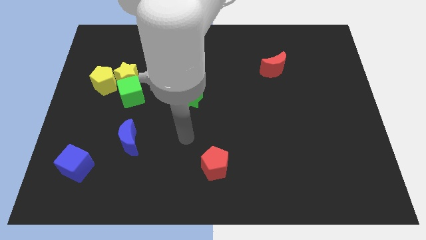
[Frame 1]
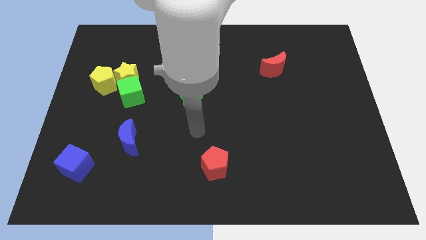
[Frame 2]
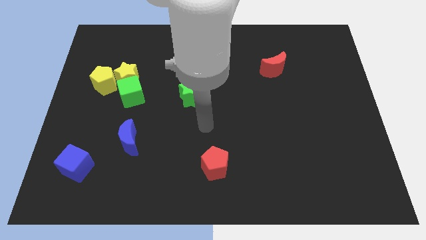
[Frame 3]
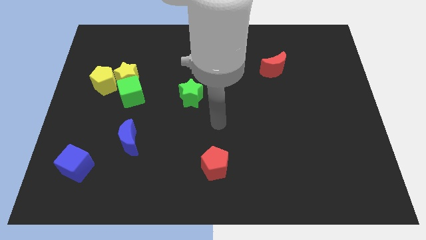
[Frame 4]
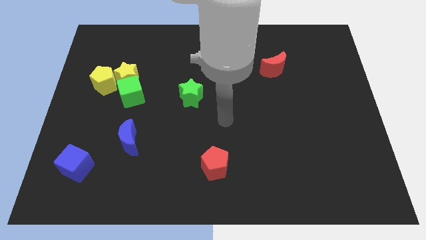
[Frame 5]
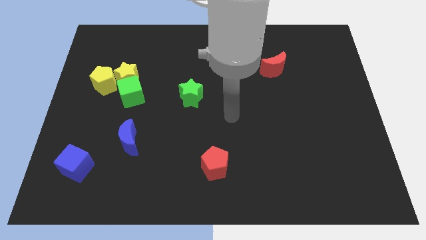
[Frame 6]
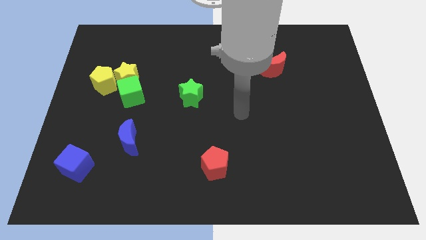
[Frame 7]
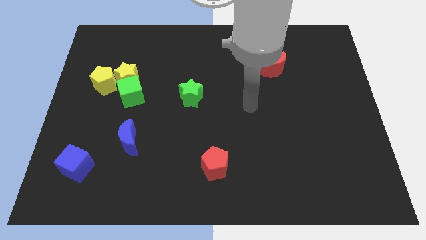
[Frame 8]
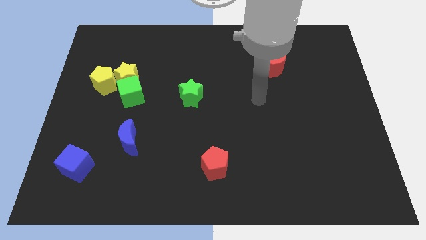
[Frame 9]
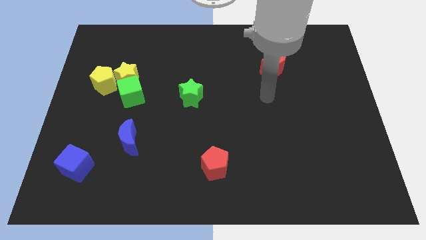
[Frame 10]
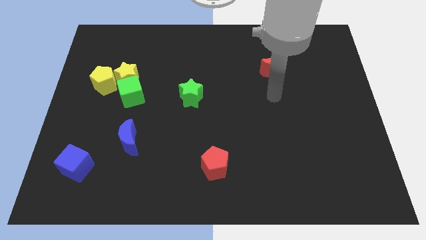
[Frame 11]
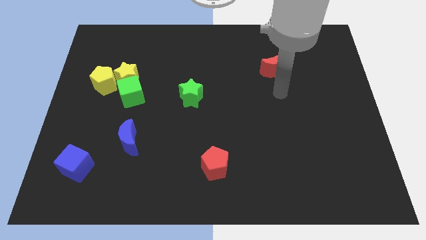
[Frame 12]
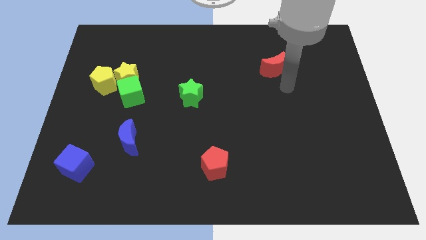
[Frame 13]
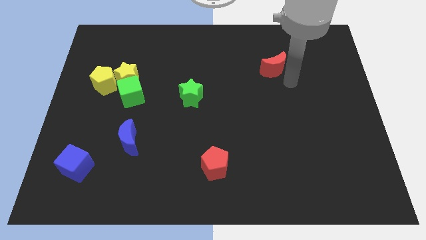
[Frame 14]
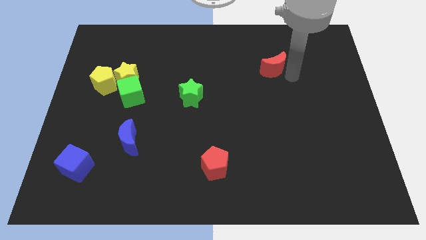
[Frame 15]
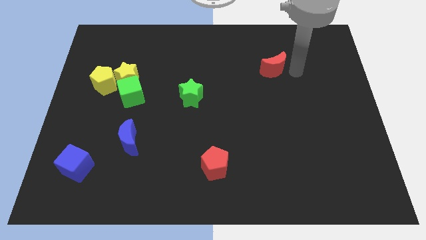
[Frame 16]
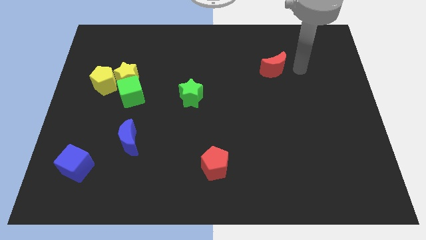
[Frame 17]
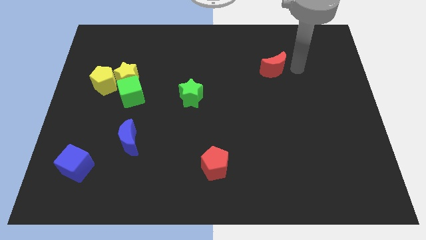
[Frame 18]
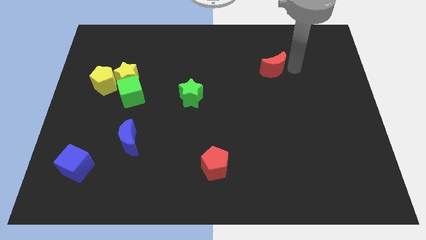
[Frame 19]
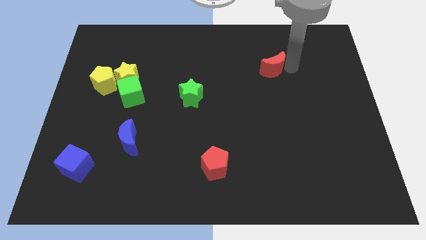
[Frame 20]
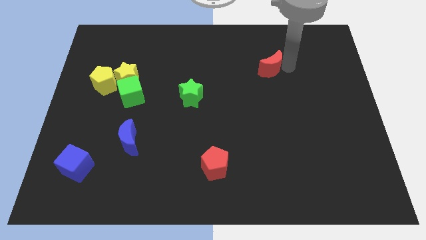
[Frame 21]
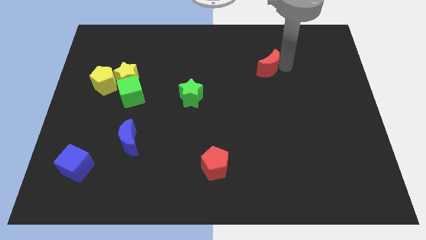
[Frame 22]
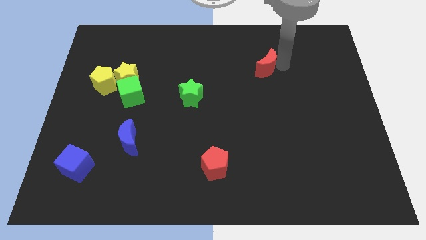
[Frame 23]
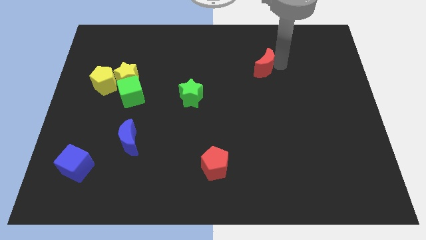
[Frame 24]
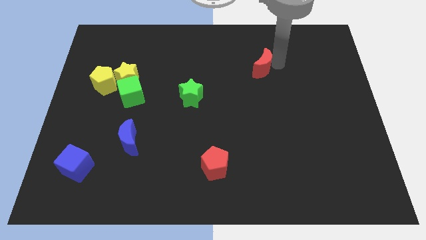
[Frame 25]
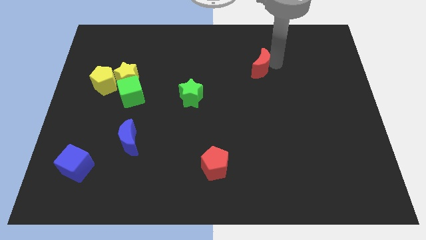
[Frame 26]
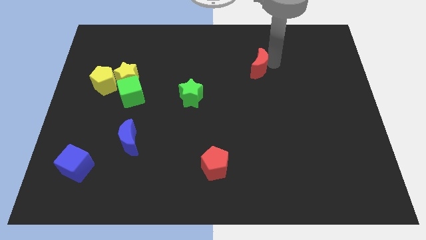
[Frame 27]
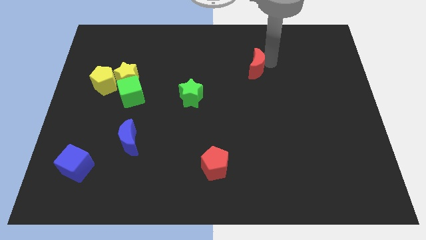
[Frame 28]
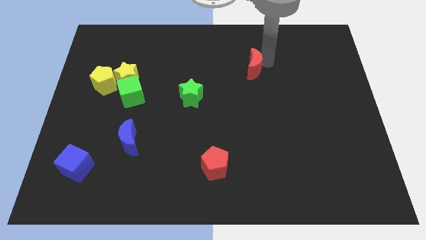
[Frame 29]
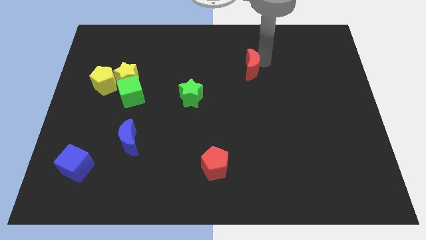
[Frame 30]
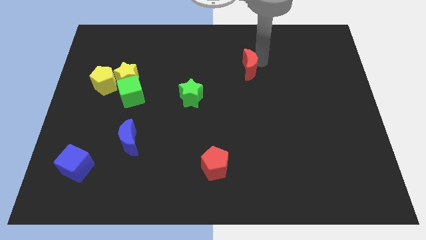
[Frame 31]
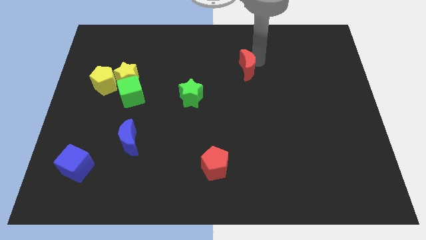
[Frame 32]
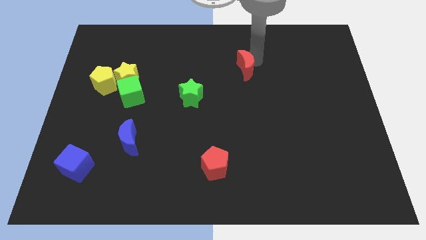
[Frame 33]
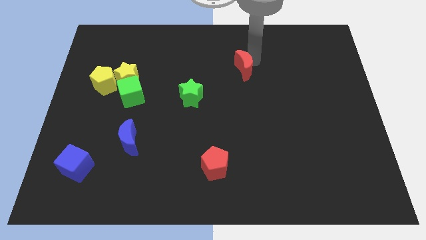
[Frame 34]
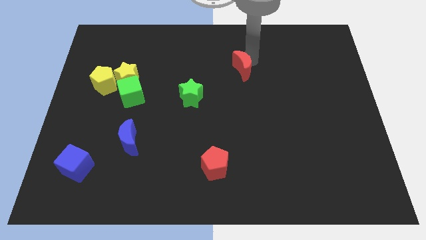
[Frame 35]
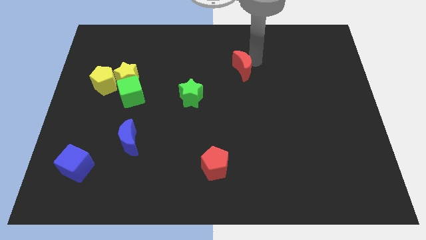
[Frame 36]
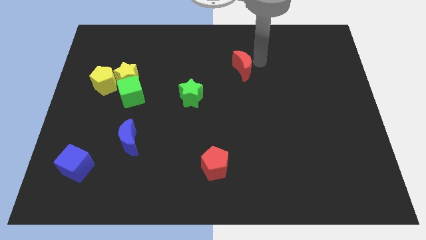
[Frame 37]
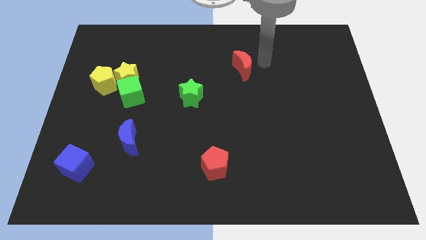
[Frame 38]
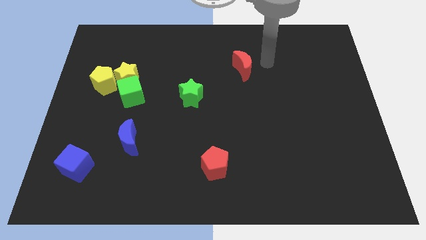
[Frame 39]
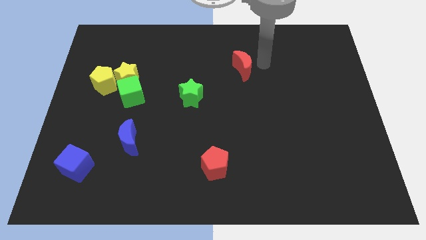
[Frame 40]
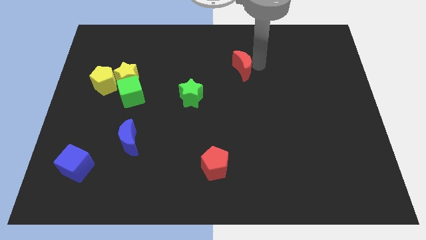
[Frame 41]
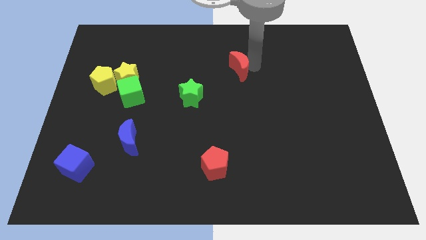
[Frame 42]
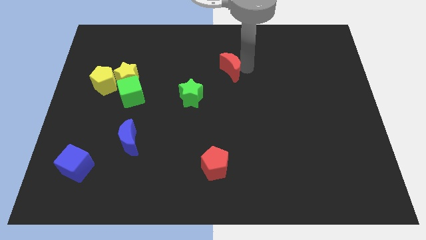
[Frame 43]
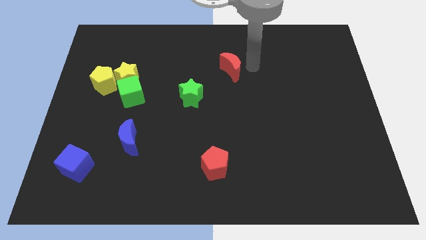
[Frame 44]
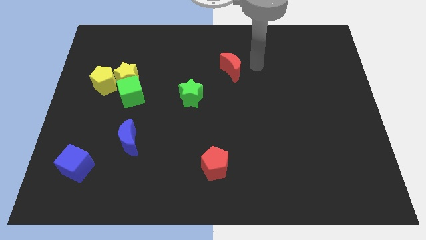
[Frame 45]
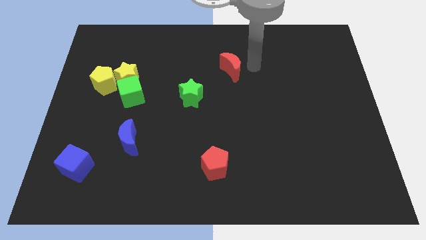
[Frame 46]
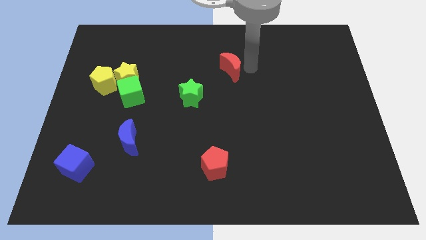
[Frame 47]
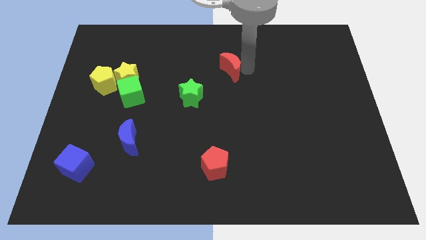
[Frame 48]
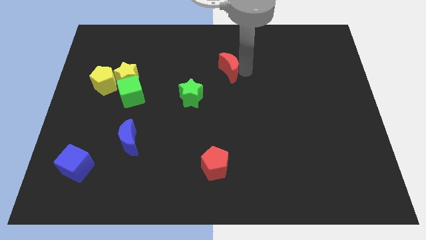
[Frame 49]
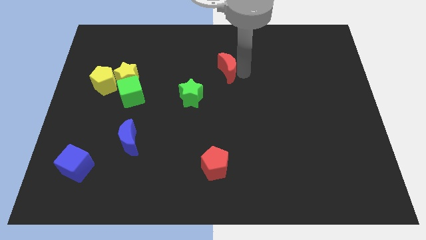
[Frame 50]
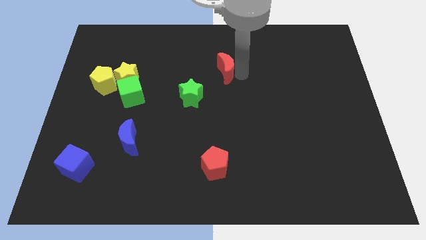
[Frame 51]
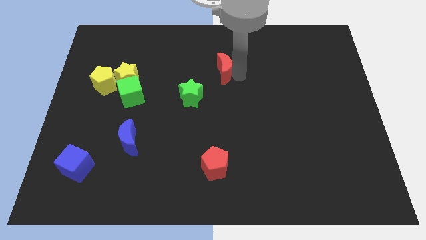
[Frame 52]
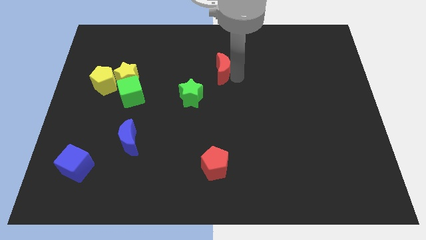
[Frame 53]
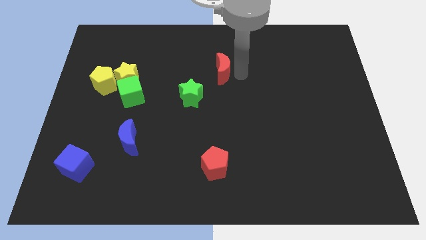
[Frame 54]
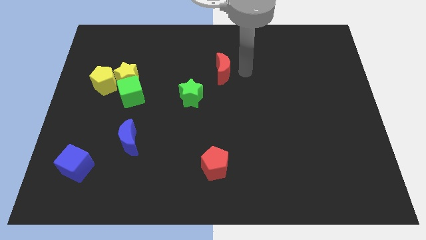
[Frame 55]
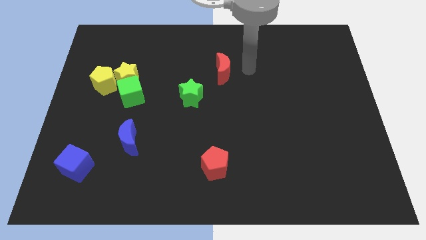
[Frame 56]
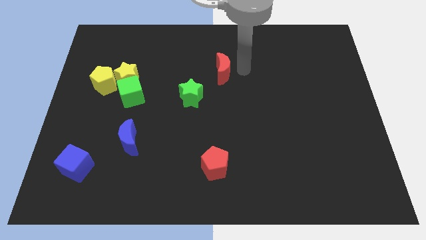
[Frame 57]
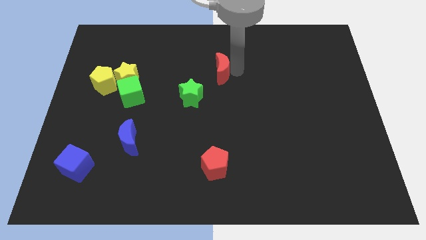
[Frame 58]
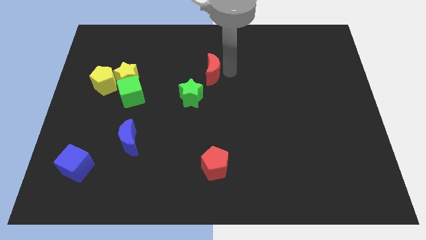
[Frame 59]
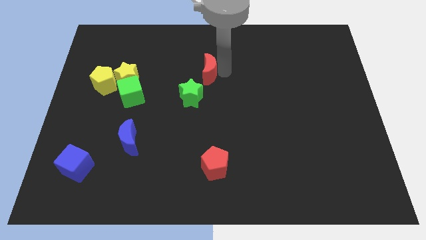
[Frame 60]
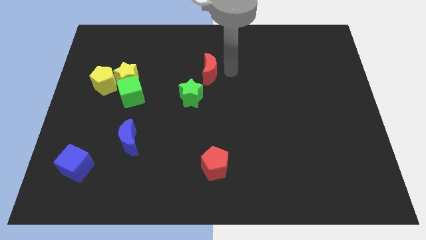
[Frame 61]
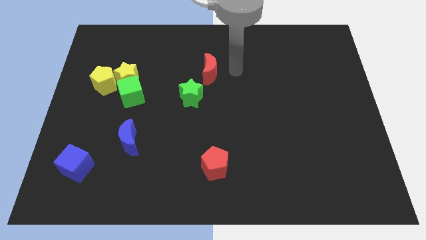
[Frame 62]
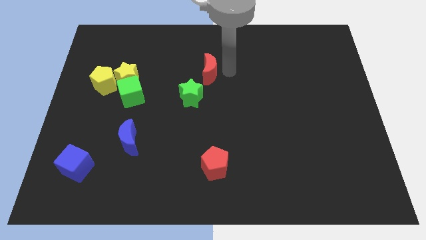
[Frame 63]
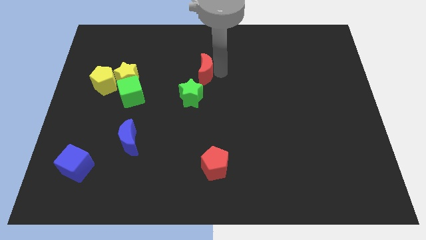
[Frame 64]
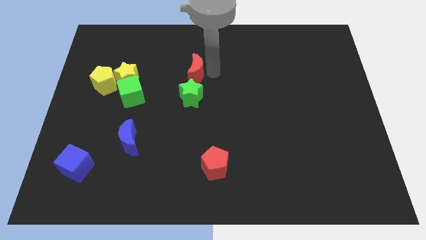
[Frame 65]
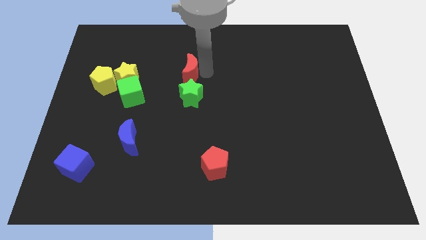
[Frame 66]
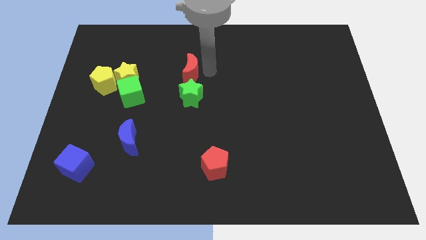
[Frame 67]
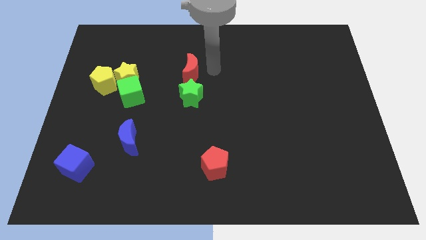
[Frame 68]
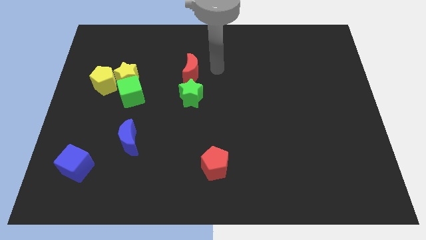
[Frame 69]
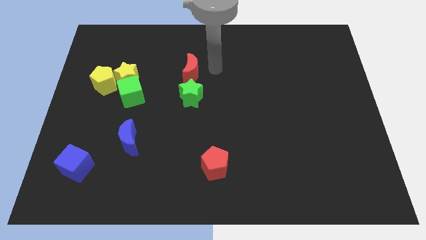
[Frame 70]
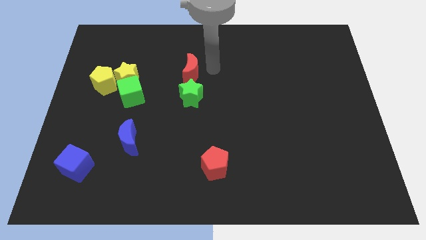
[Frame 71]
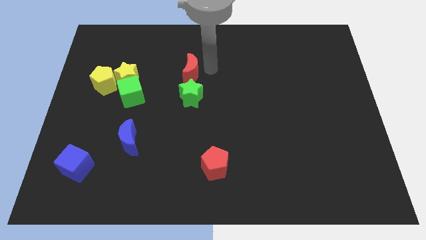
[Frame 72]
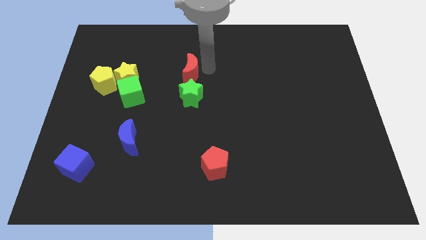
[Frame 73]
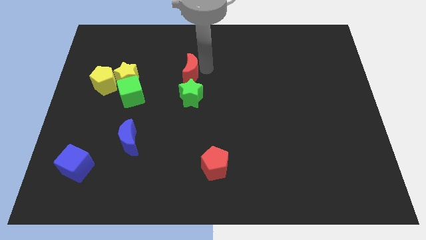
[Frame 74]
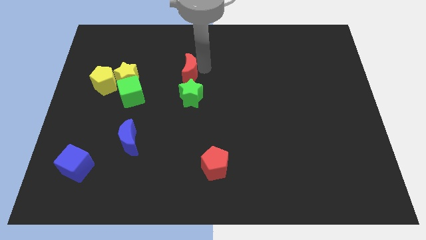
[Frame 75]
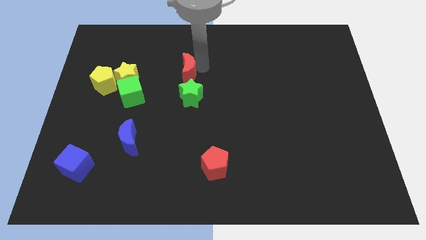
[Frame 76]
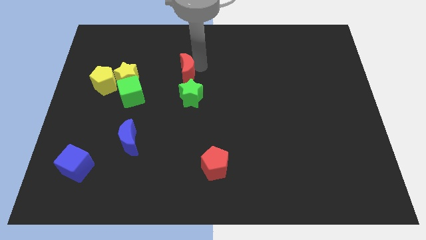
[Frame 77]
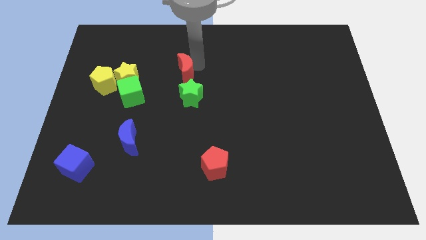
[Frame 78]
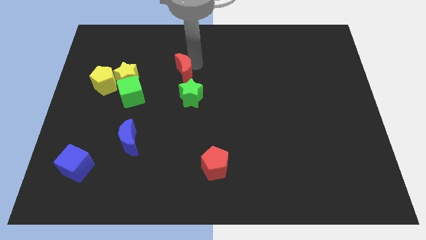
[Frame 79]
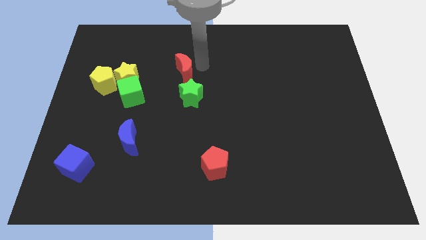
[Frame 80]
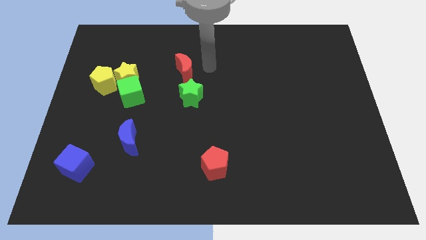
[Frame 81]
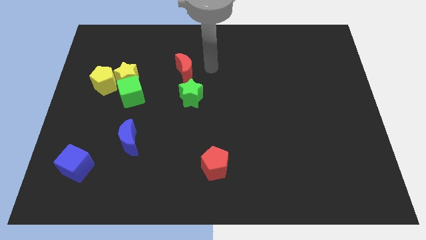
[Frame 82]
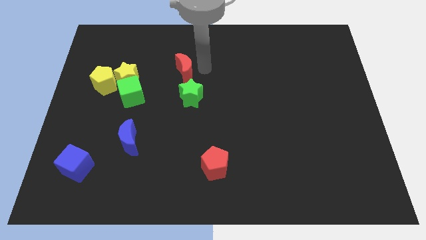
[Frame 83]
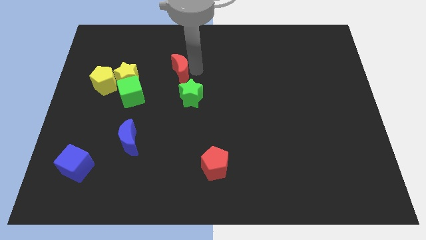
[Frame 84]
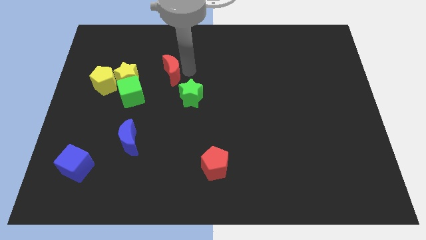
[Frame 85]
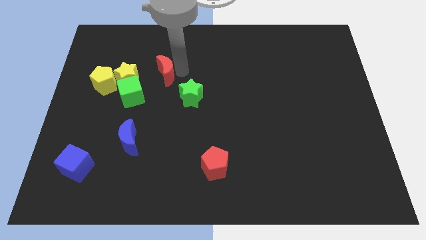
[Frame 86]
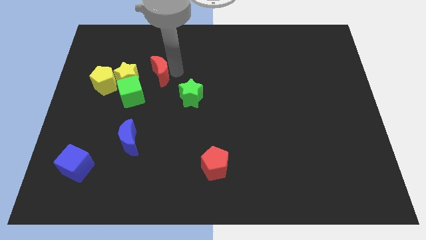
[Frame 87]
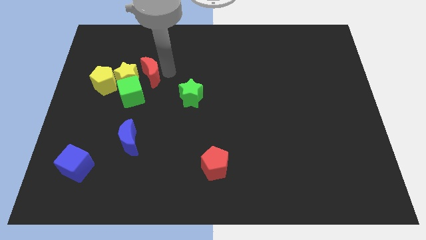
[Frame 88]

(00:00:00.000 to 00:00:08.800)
put the red moon next to the yellow star
